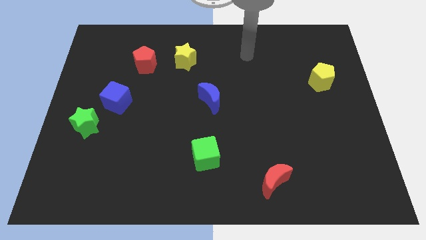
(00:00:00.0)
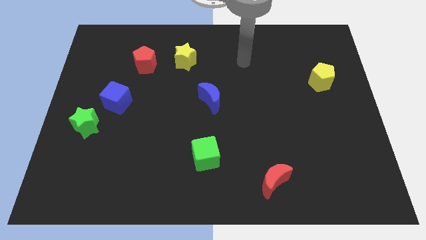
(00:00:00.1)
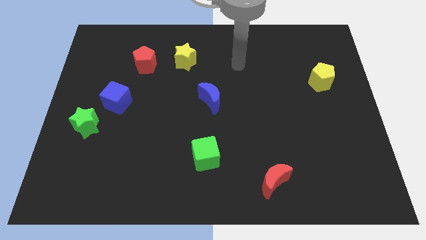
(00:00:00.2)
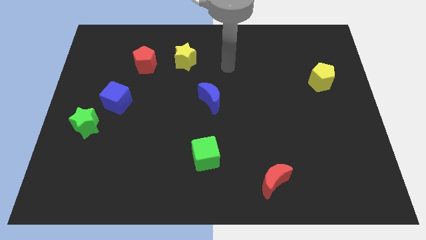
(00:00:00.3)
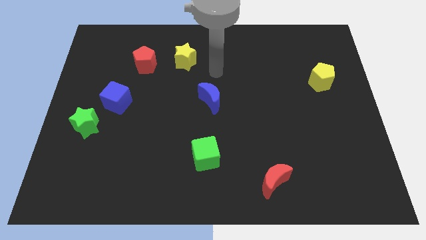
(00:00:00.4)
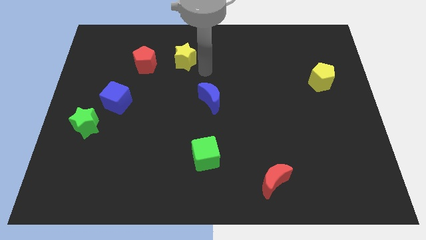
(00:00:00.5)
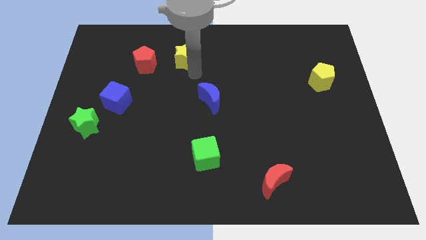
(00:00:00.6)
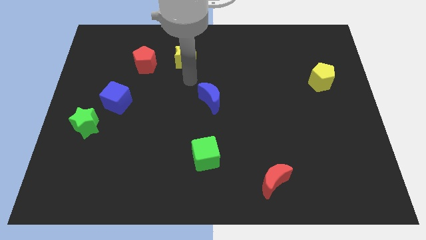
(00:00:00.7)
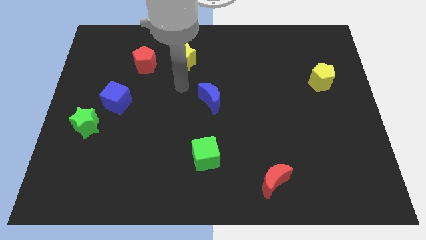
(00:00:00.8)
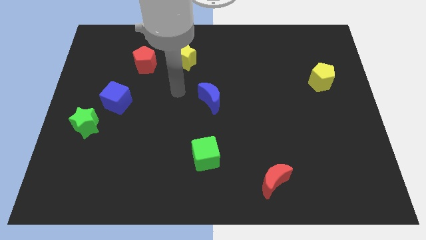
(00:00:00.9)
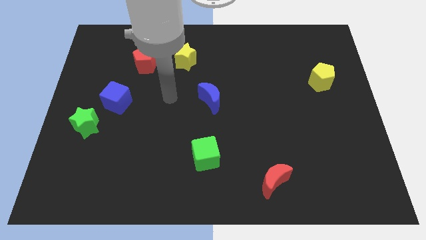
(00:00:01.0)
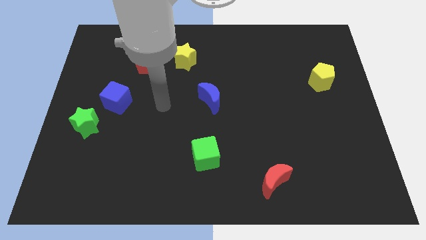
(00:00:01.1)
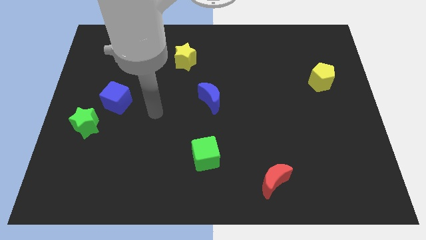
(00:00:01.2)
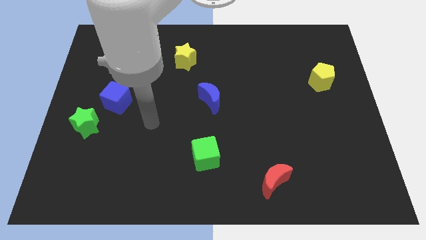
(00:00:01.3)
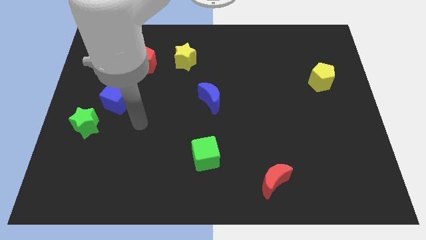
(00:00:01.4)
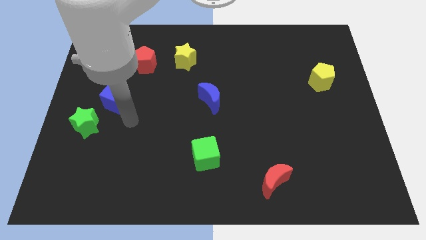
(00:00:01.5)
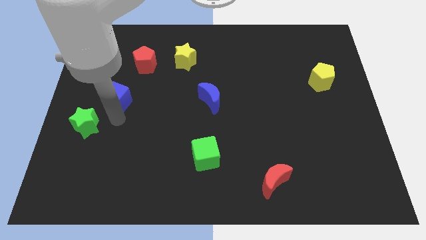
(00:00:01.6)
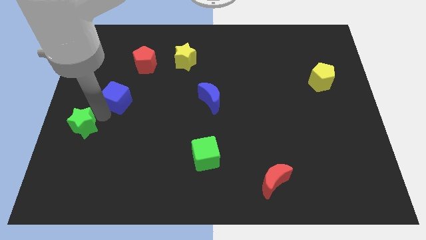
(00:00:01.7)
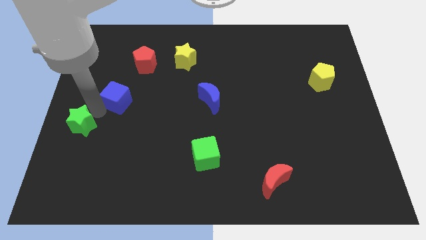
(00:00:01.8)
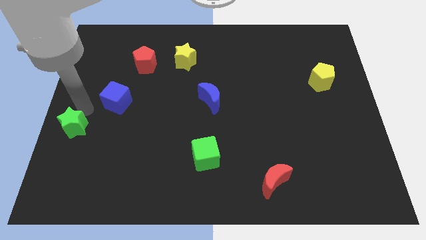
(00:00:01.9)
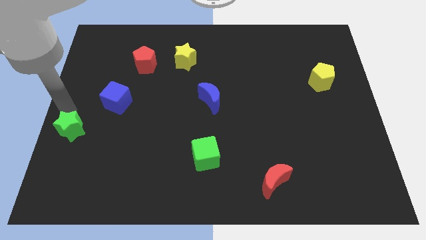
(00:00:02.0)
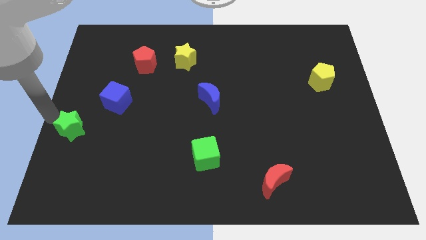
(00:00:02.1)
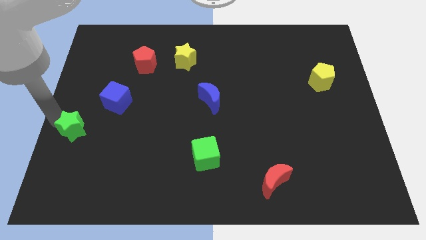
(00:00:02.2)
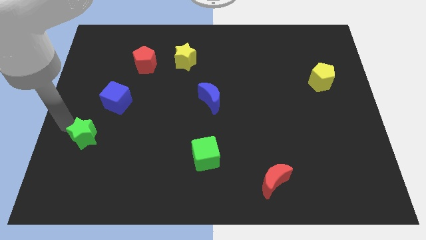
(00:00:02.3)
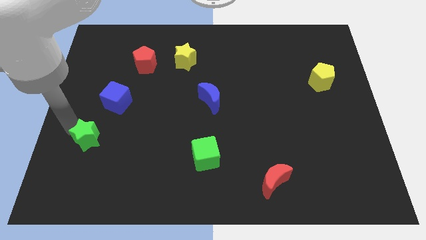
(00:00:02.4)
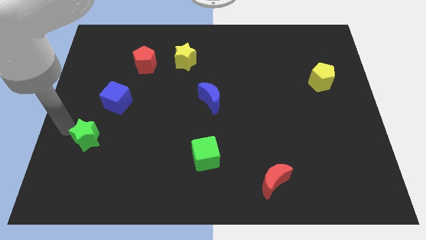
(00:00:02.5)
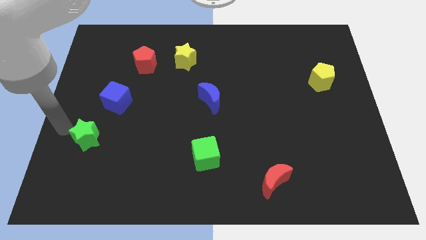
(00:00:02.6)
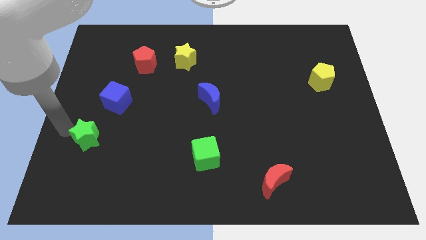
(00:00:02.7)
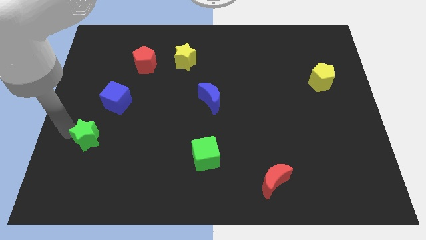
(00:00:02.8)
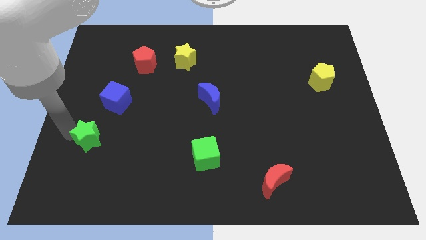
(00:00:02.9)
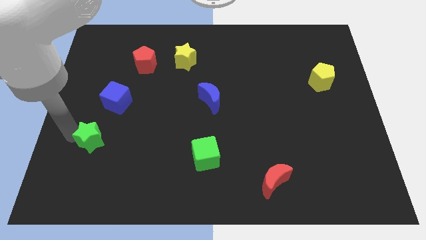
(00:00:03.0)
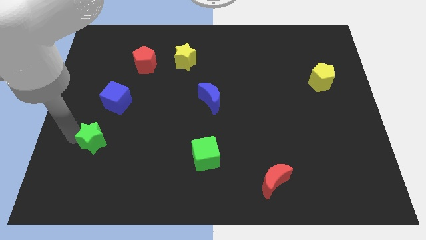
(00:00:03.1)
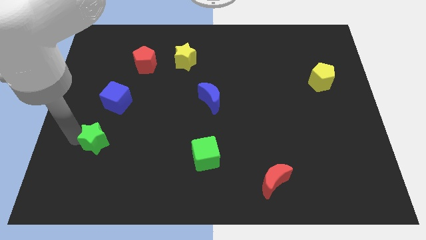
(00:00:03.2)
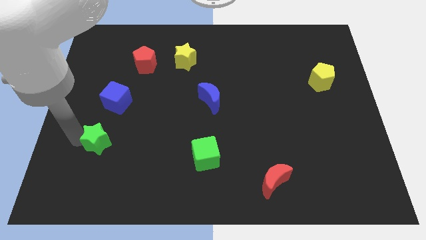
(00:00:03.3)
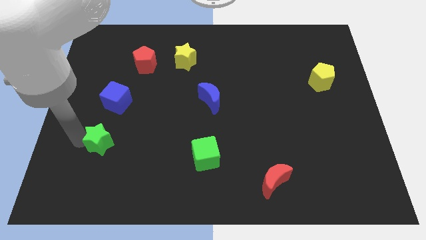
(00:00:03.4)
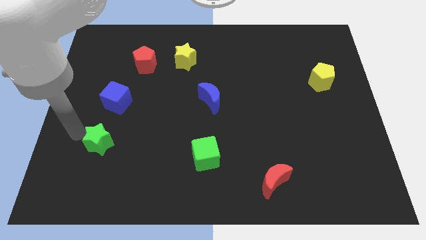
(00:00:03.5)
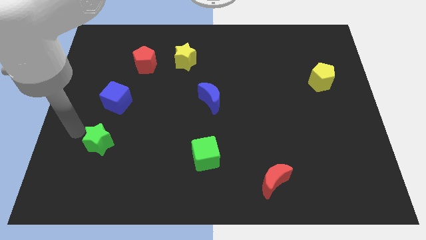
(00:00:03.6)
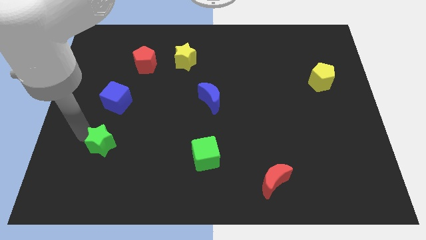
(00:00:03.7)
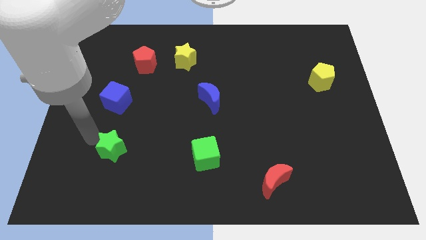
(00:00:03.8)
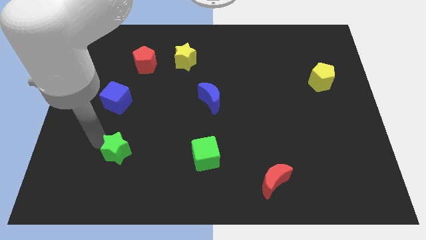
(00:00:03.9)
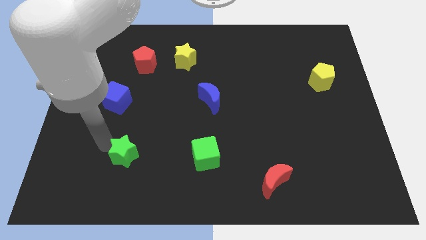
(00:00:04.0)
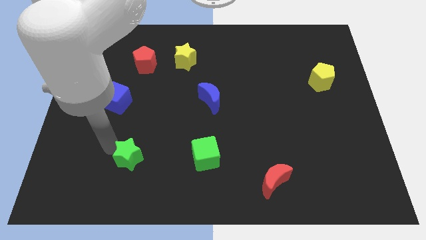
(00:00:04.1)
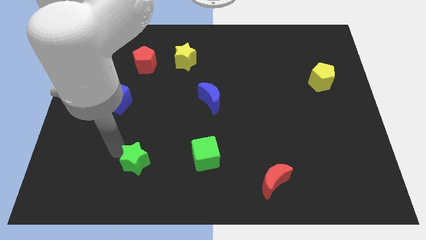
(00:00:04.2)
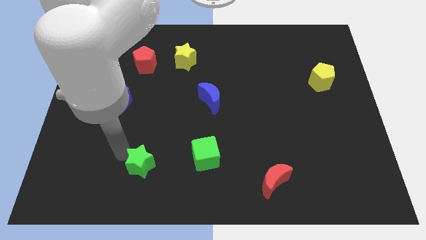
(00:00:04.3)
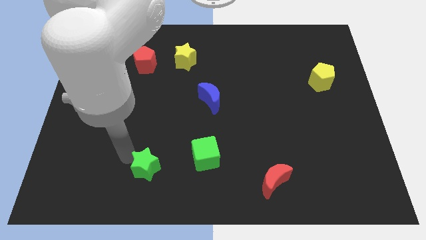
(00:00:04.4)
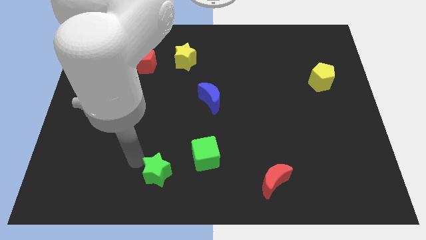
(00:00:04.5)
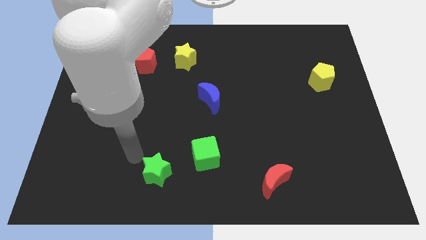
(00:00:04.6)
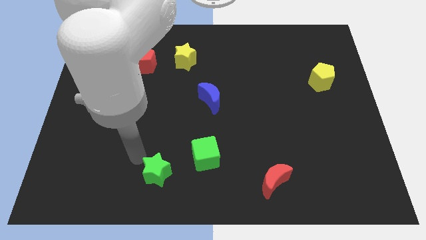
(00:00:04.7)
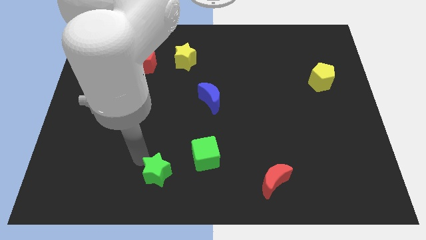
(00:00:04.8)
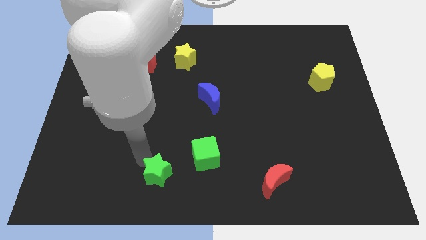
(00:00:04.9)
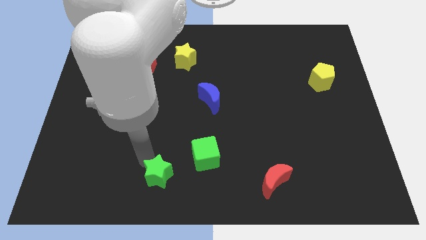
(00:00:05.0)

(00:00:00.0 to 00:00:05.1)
move the green star to the bottom

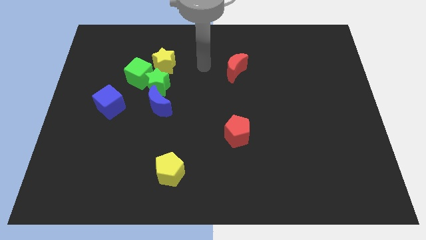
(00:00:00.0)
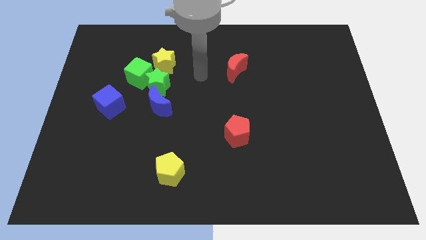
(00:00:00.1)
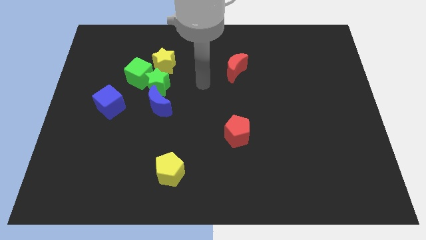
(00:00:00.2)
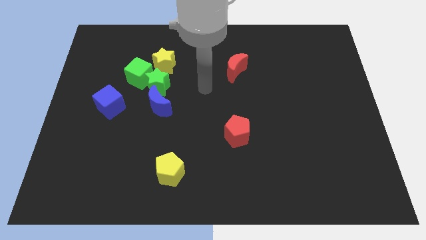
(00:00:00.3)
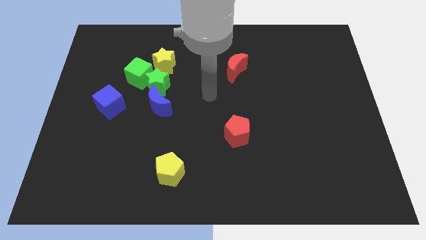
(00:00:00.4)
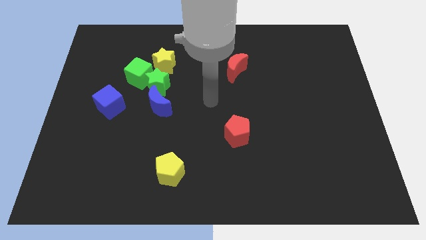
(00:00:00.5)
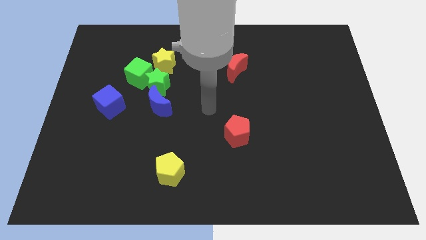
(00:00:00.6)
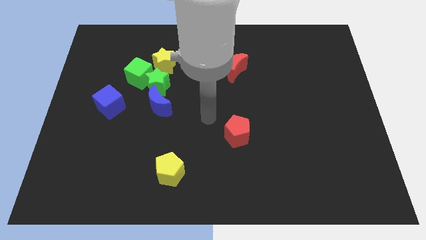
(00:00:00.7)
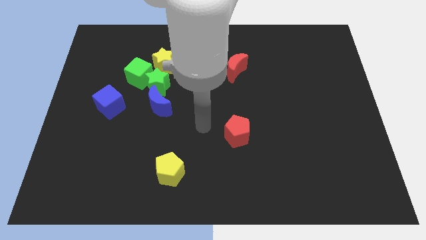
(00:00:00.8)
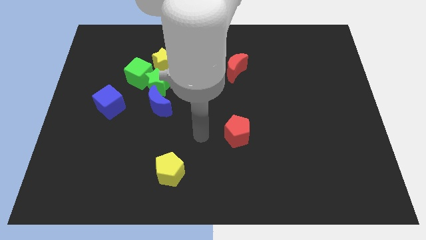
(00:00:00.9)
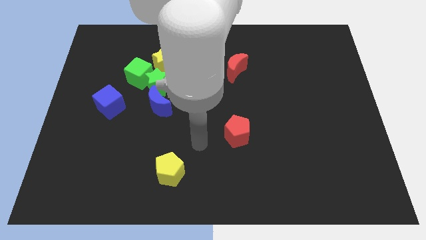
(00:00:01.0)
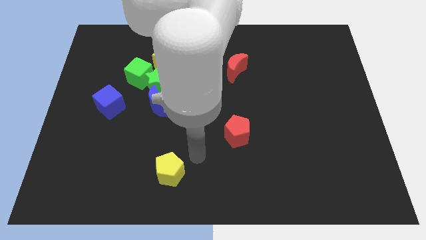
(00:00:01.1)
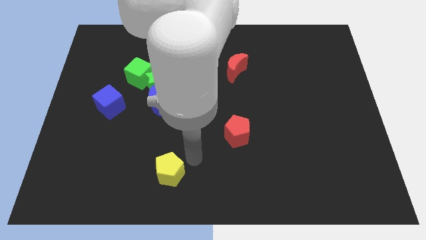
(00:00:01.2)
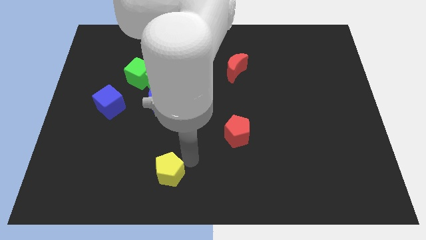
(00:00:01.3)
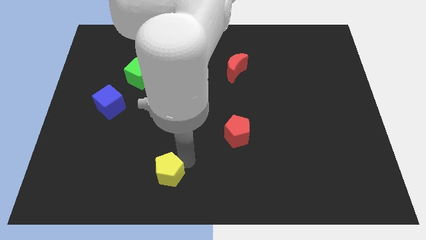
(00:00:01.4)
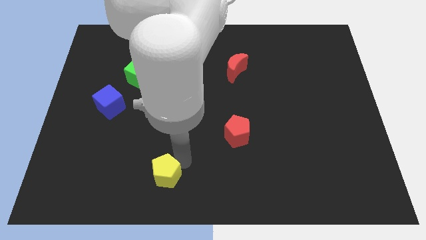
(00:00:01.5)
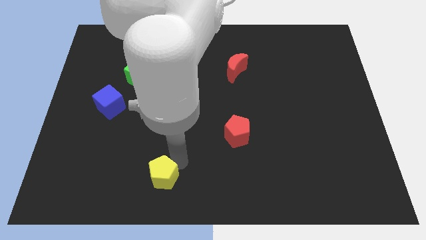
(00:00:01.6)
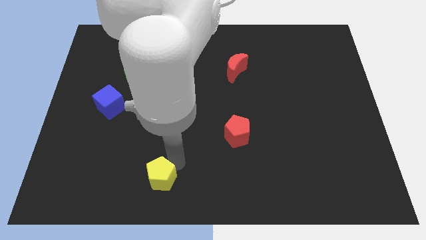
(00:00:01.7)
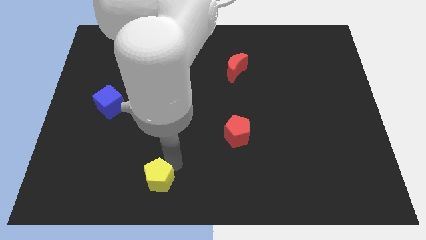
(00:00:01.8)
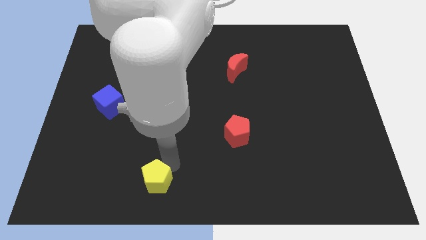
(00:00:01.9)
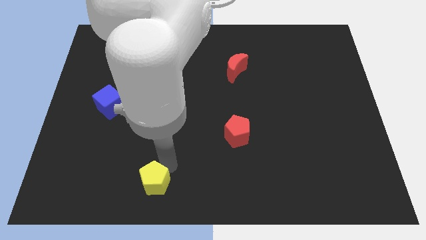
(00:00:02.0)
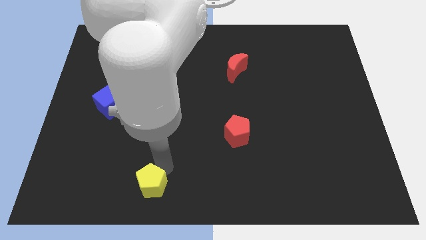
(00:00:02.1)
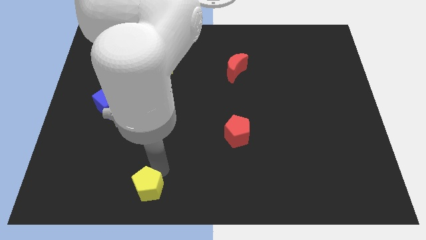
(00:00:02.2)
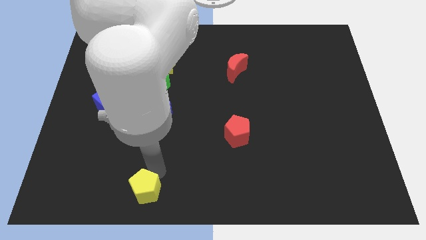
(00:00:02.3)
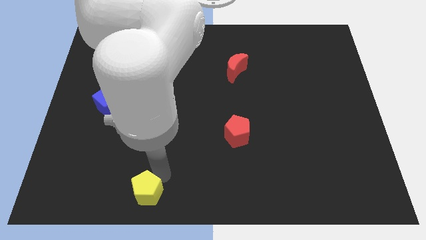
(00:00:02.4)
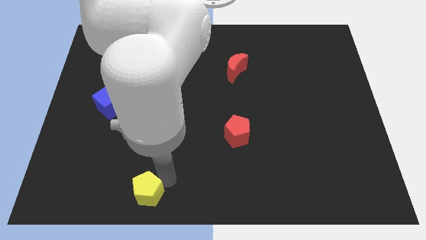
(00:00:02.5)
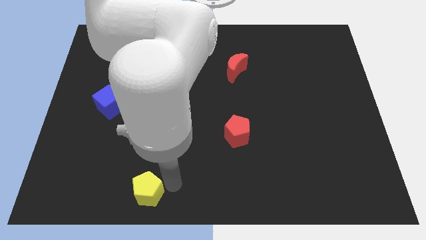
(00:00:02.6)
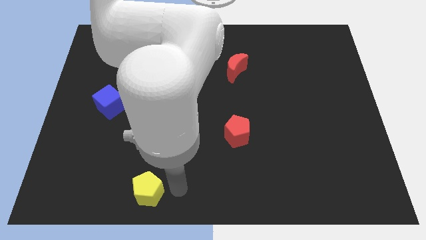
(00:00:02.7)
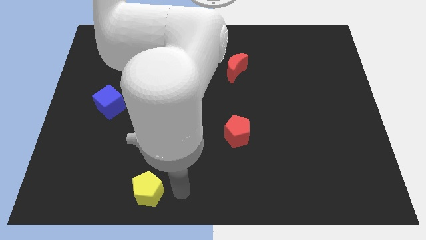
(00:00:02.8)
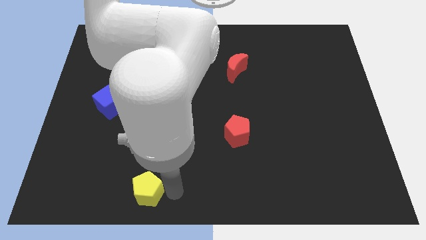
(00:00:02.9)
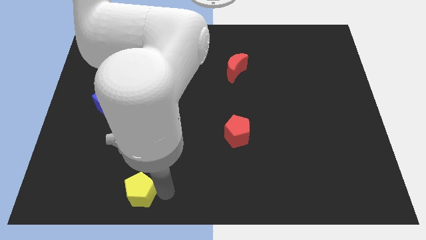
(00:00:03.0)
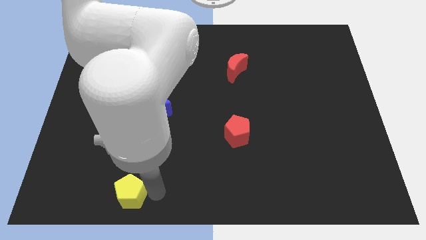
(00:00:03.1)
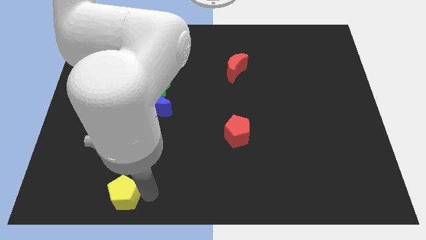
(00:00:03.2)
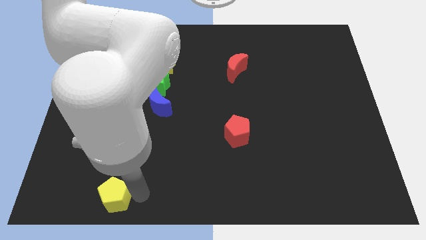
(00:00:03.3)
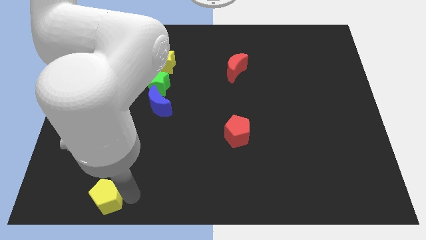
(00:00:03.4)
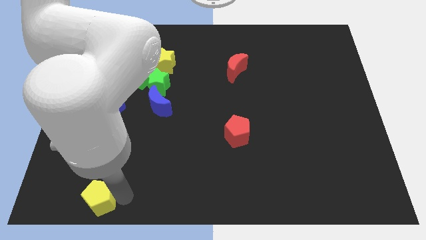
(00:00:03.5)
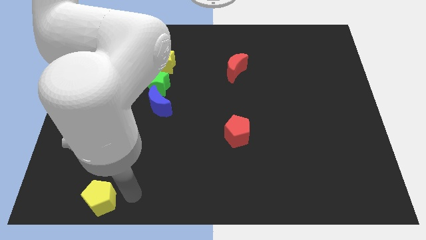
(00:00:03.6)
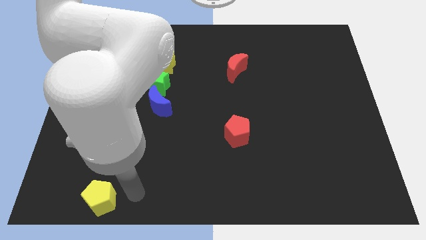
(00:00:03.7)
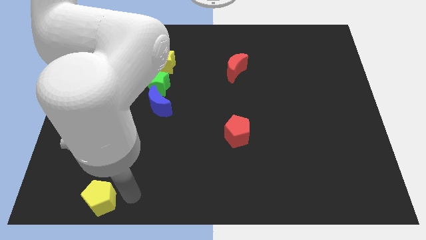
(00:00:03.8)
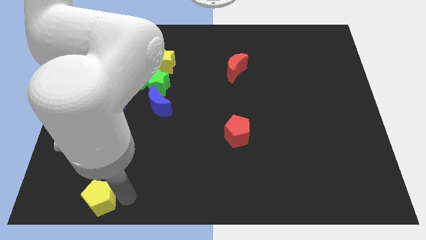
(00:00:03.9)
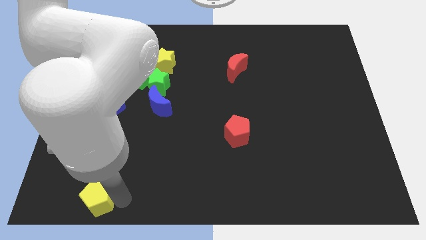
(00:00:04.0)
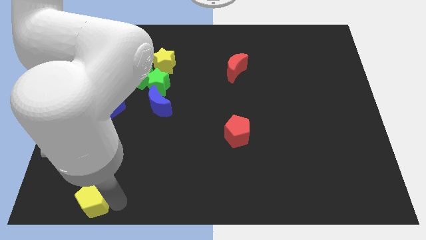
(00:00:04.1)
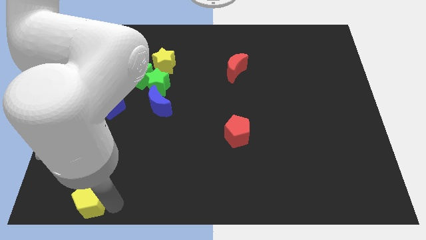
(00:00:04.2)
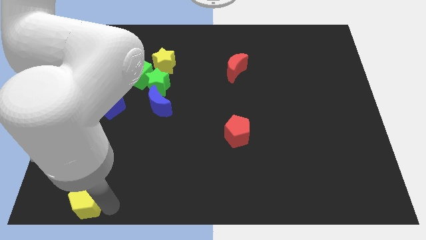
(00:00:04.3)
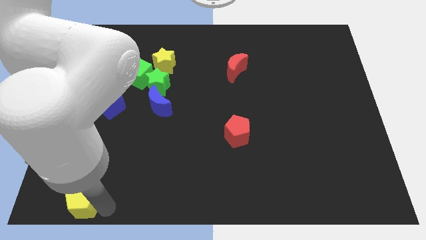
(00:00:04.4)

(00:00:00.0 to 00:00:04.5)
push the yellow pentagon to the lower left corner
